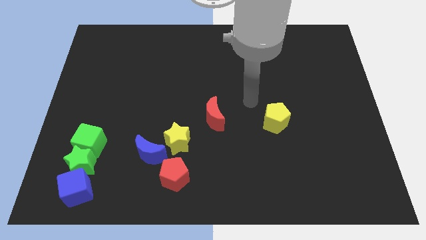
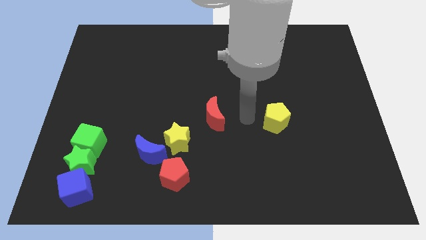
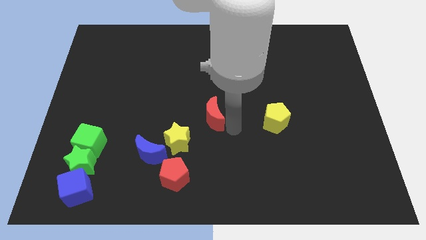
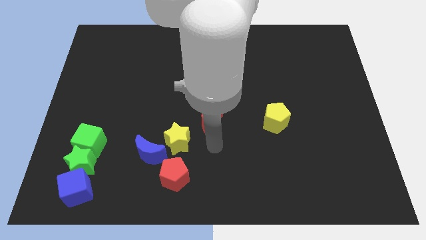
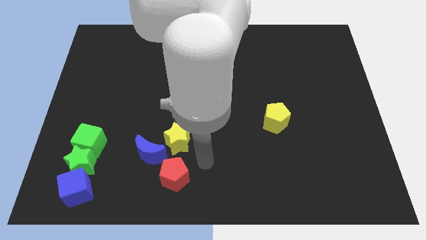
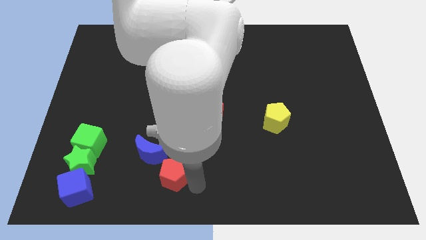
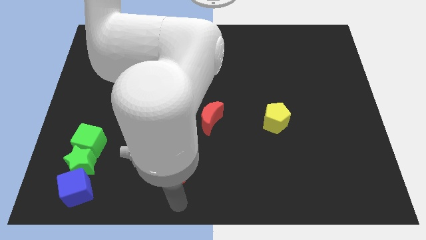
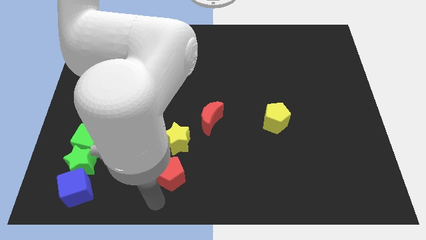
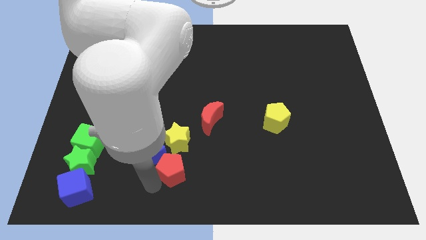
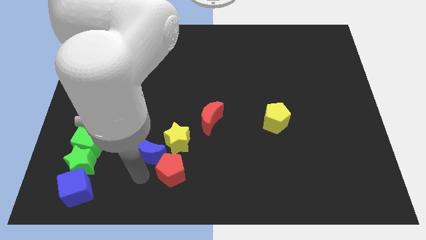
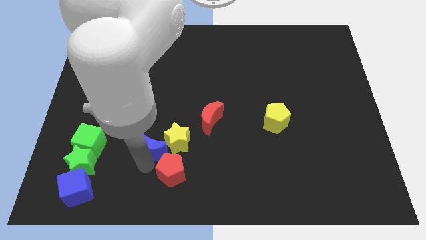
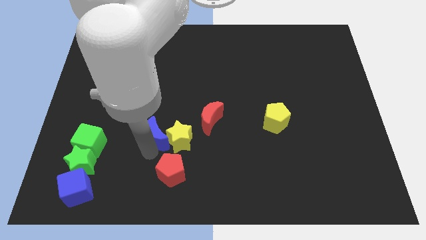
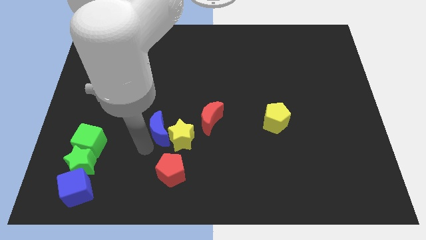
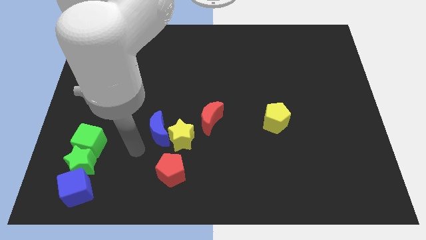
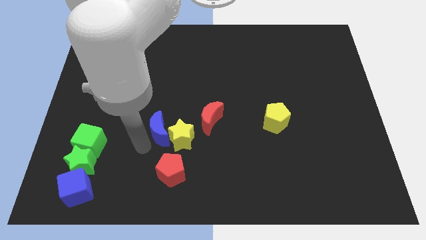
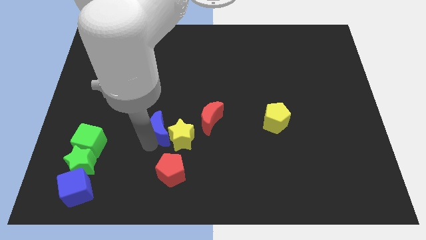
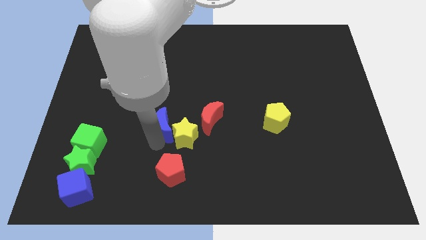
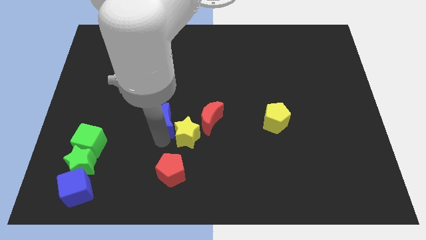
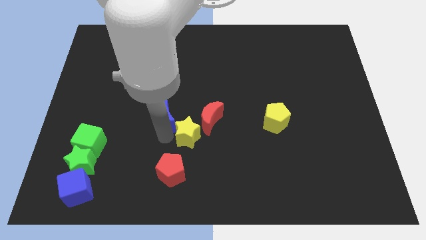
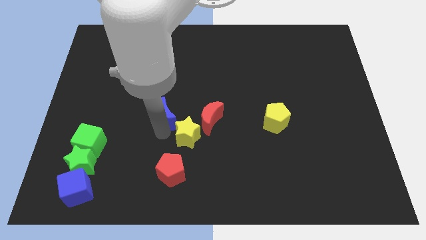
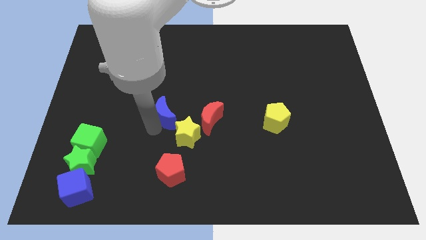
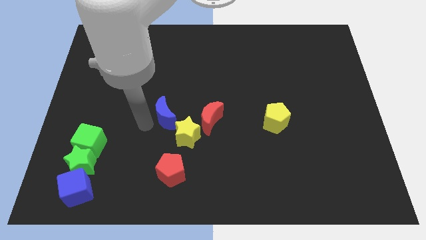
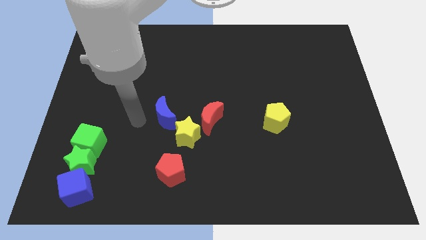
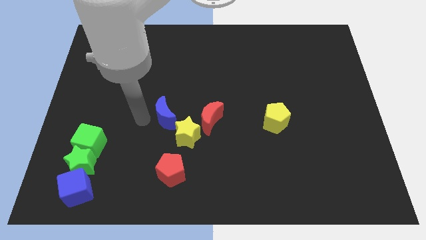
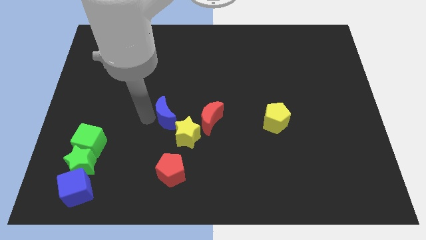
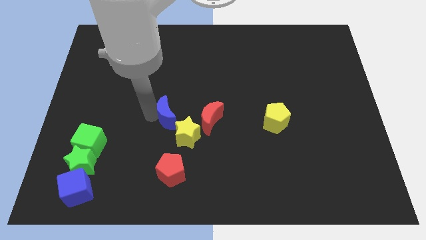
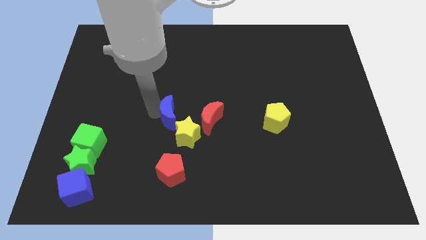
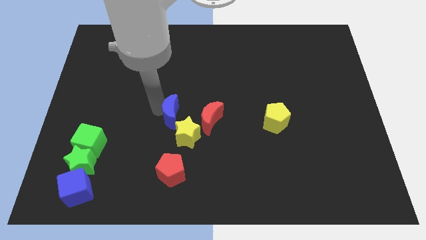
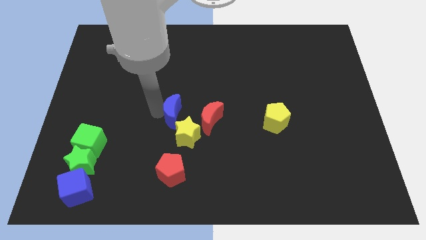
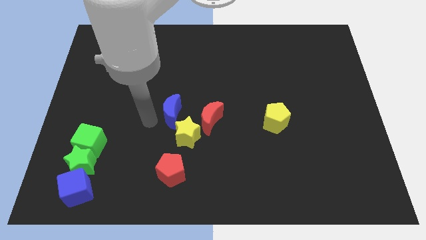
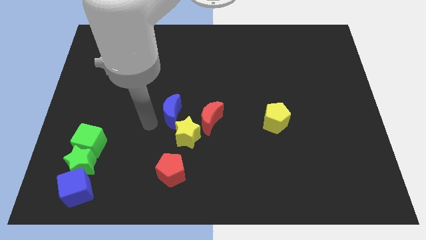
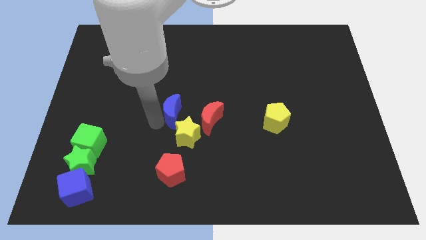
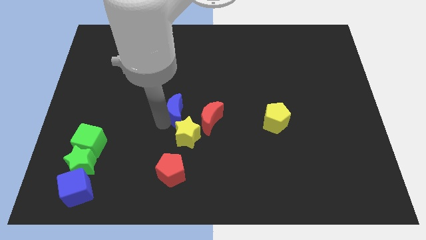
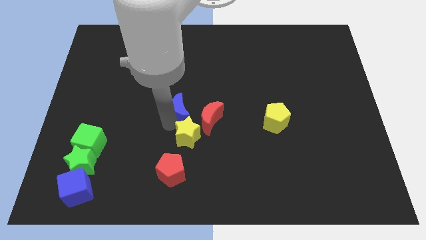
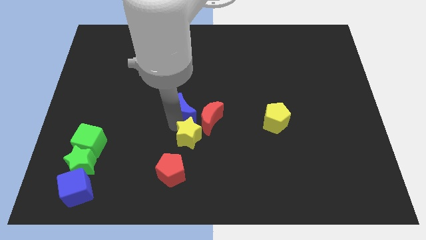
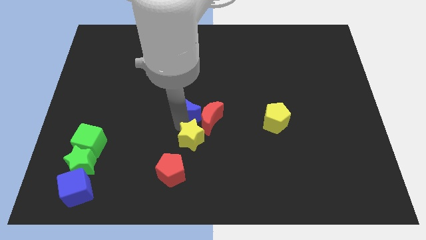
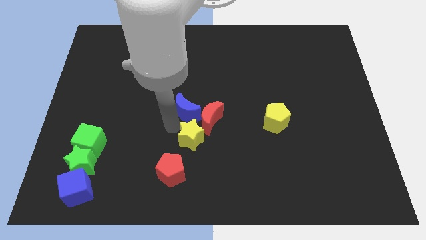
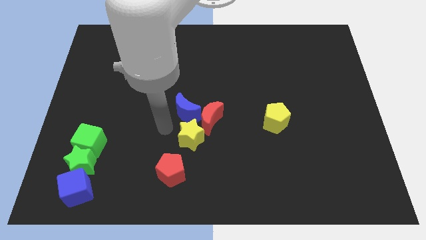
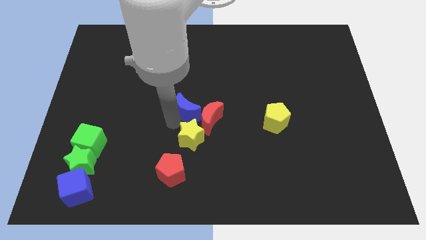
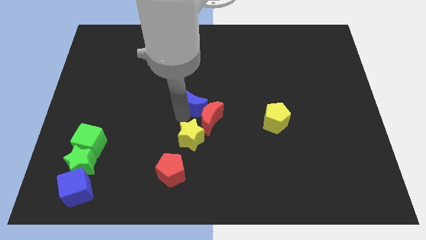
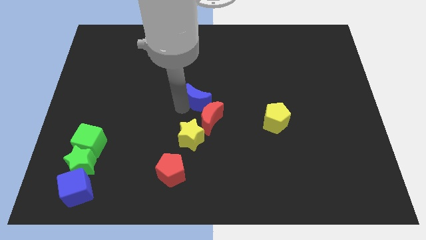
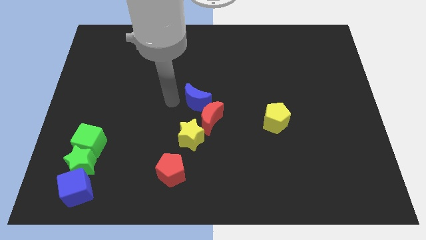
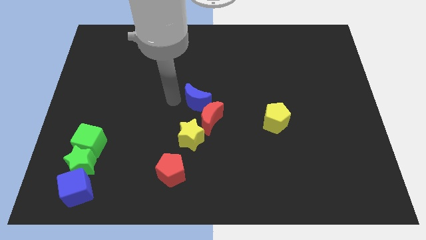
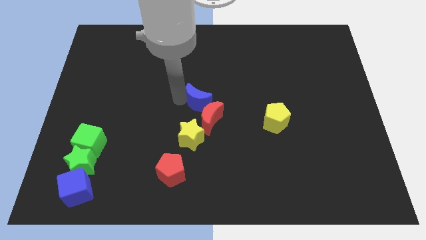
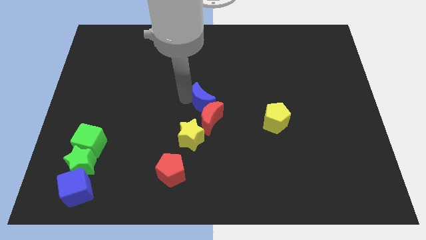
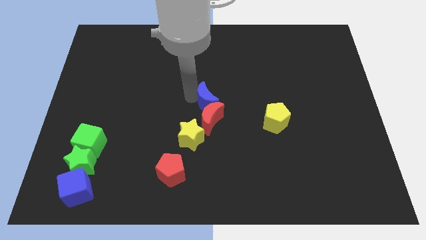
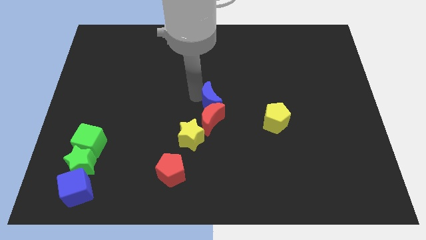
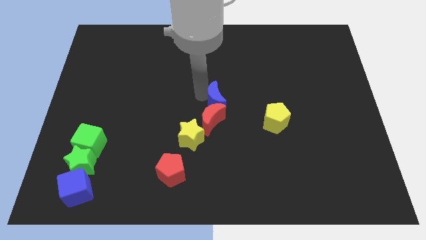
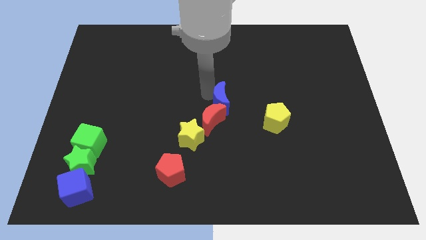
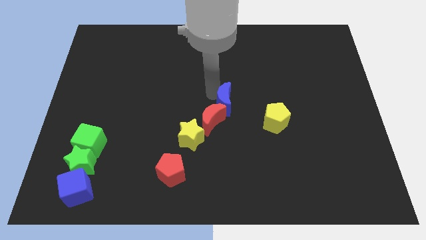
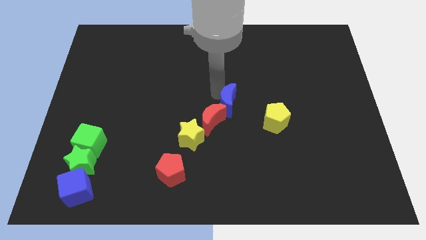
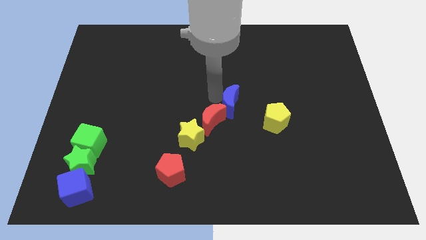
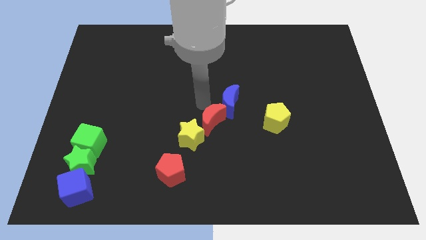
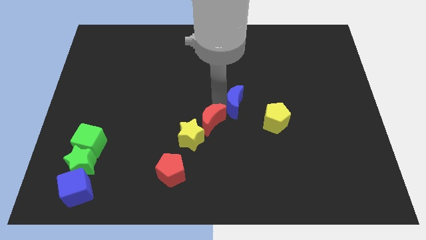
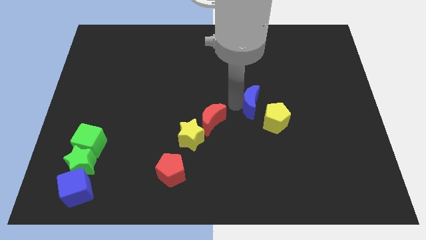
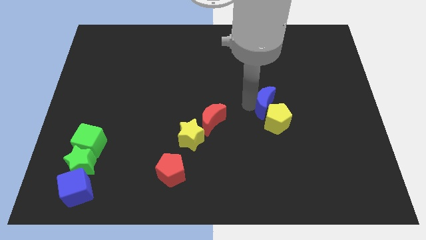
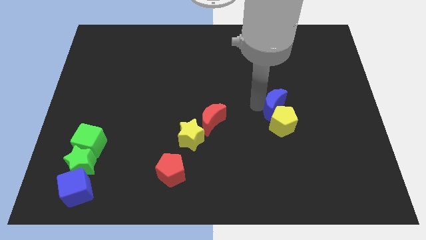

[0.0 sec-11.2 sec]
move the blue moon to the top right of the yellow pentagon

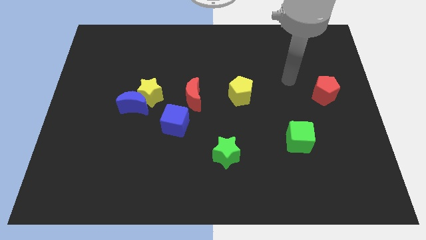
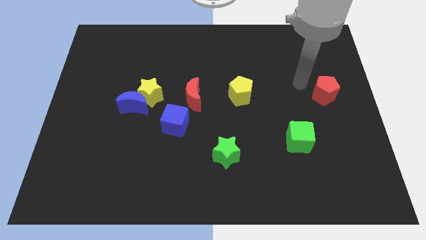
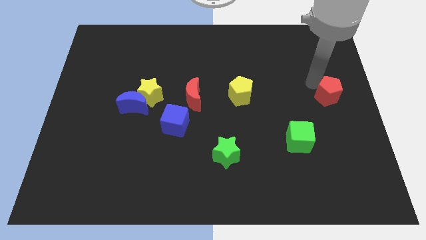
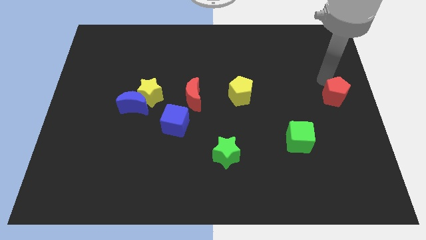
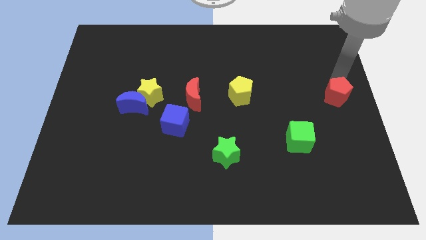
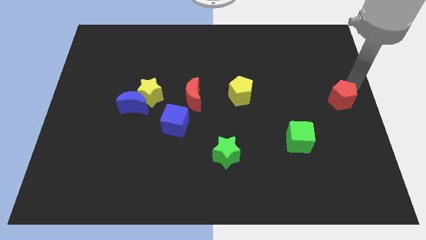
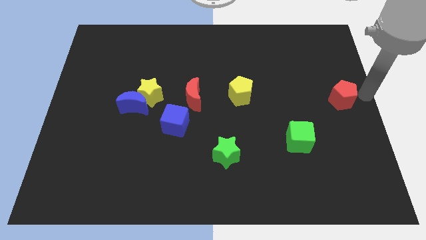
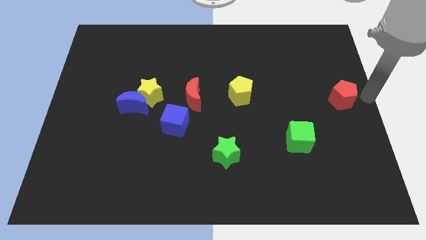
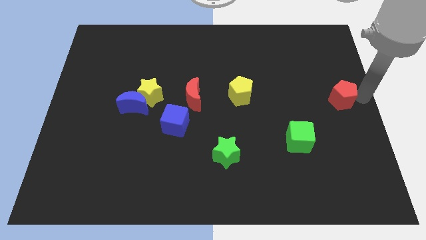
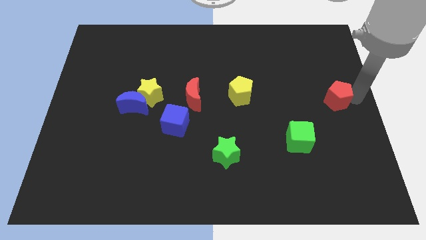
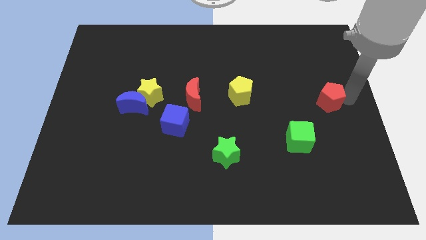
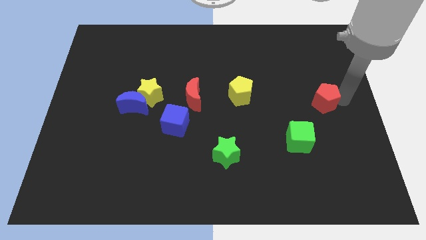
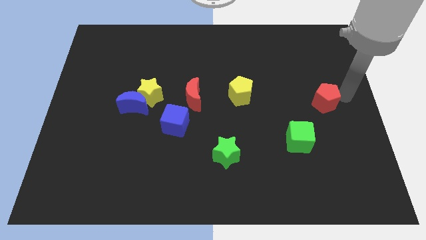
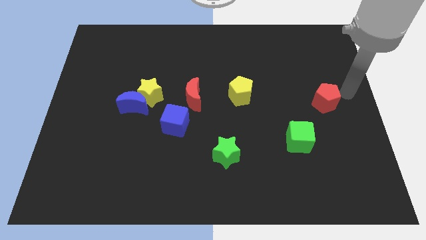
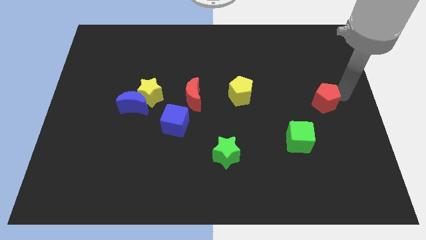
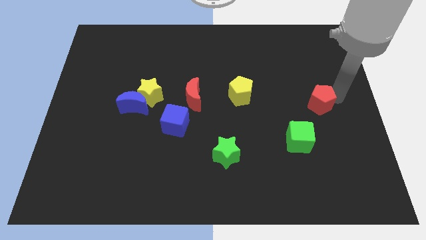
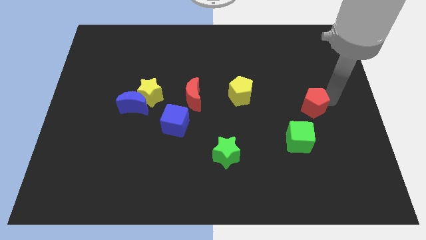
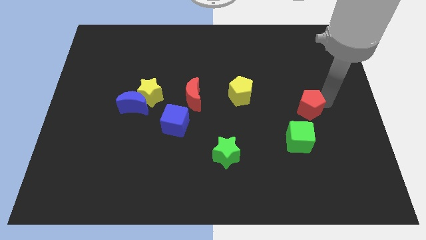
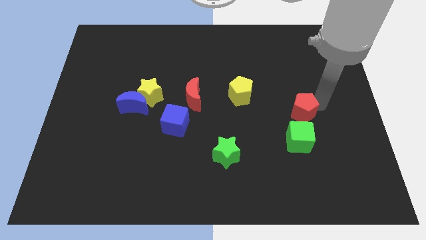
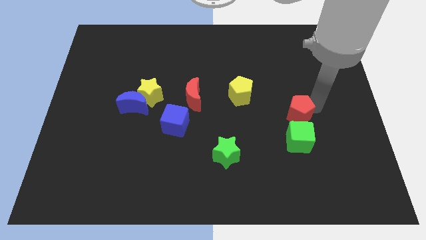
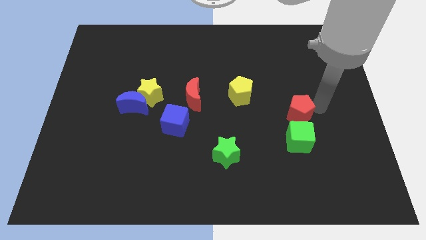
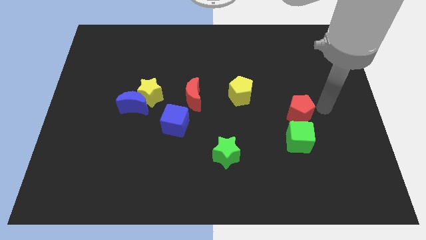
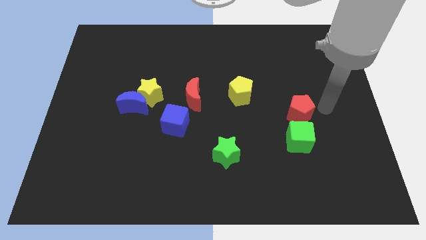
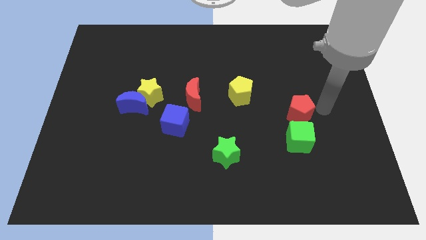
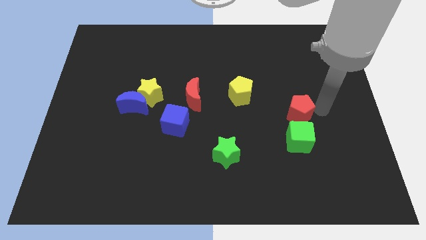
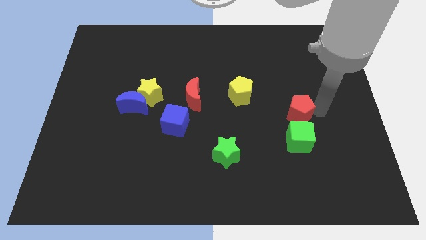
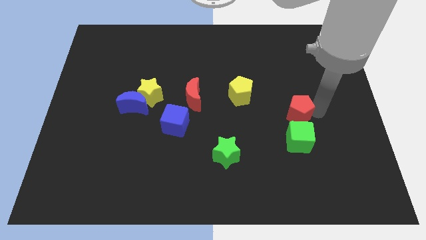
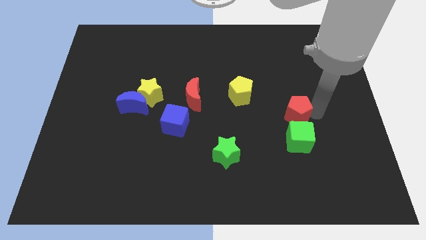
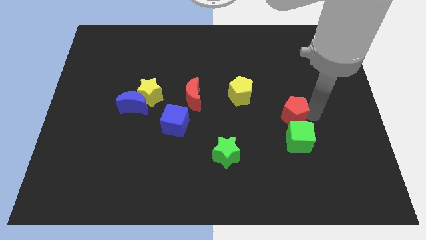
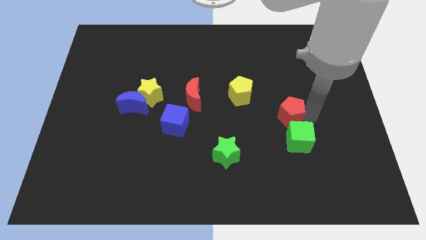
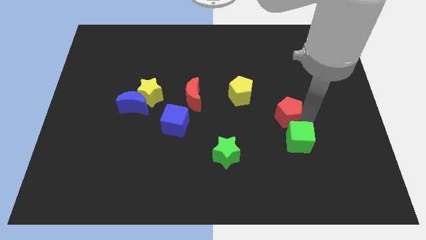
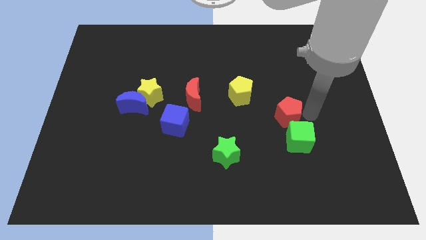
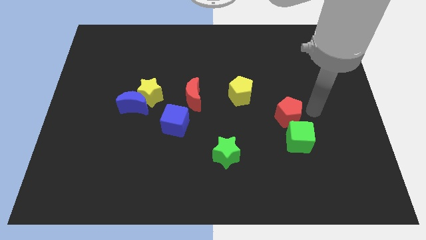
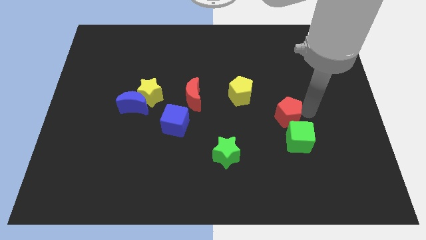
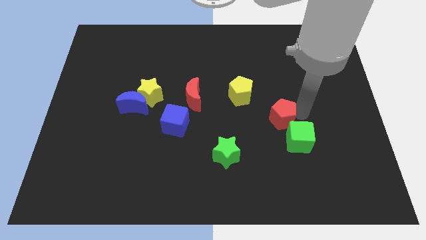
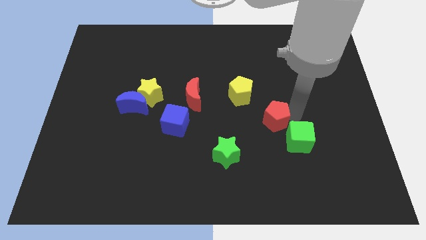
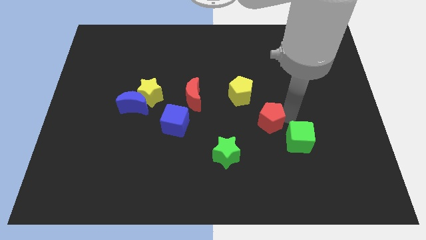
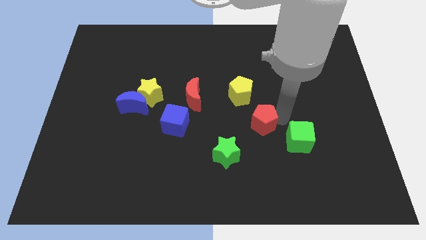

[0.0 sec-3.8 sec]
move the red pentagon to the bottom of the yellow pentagon
